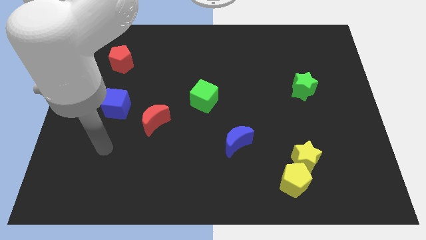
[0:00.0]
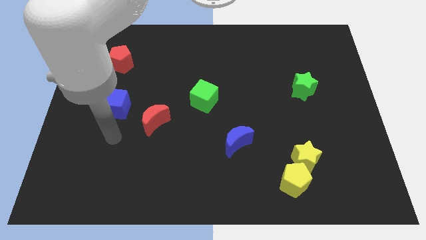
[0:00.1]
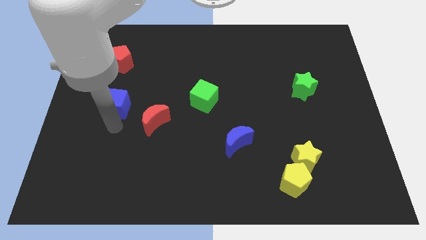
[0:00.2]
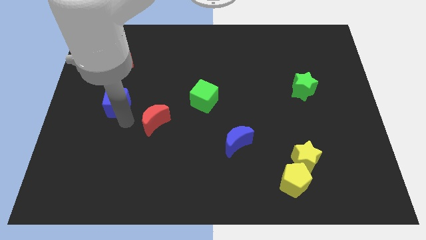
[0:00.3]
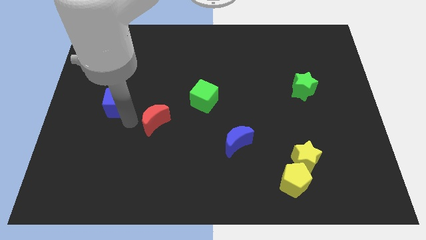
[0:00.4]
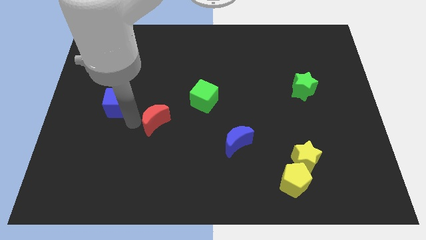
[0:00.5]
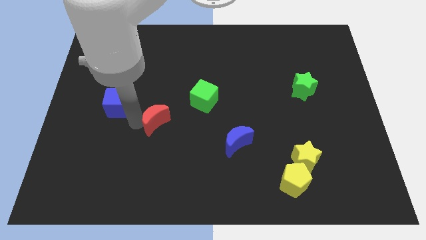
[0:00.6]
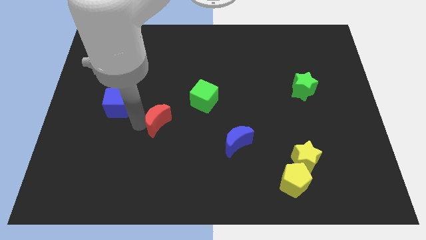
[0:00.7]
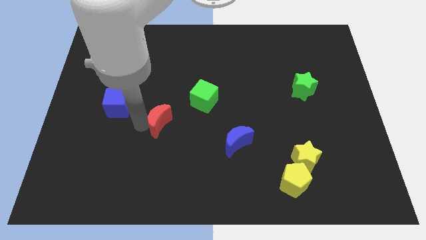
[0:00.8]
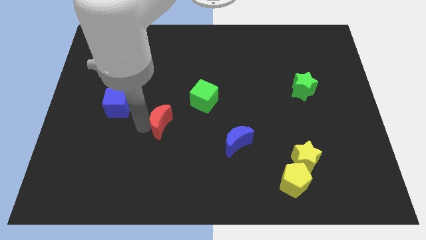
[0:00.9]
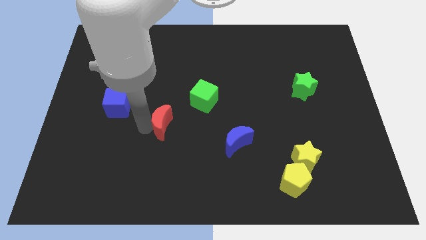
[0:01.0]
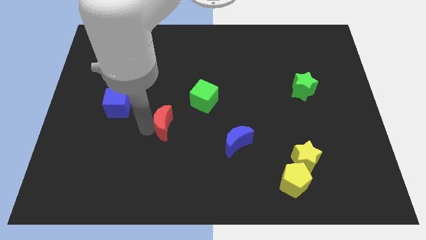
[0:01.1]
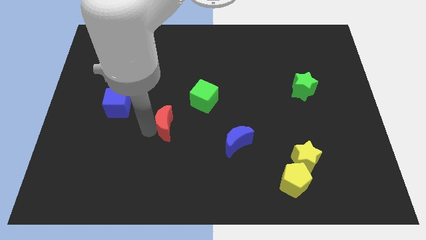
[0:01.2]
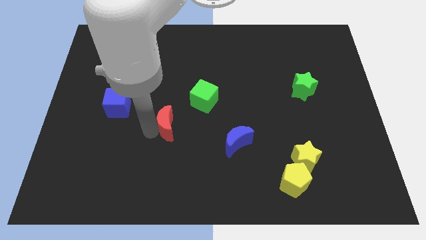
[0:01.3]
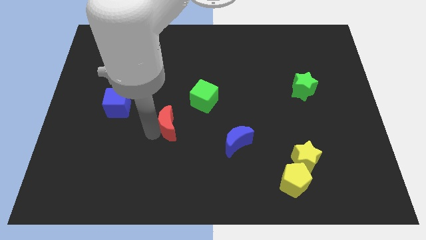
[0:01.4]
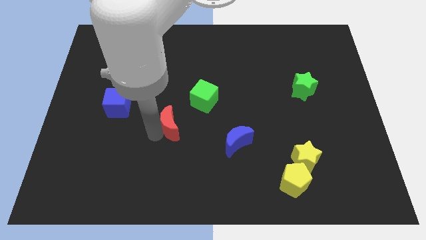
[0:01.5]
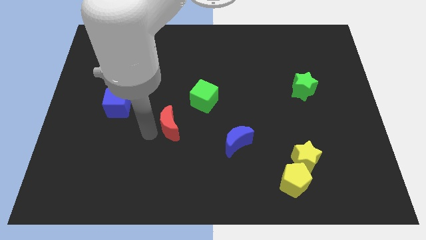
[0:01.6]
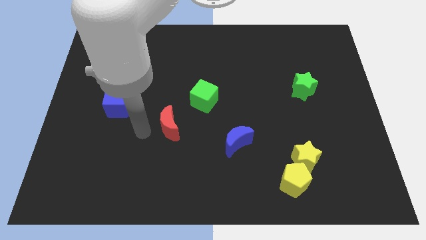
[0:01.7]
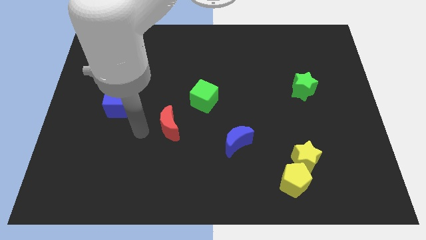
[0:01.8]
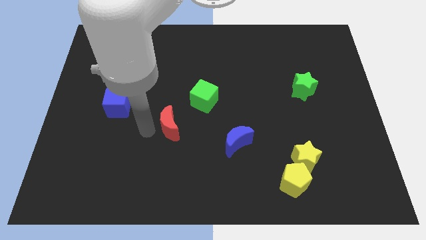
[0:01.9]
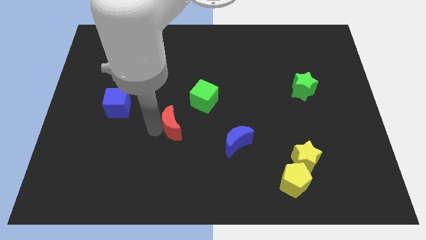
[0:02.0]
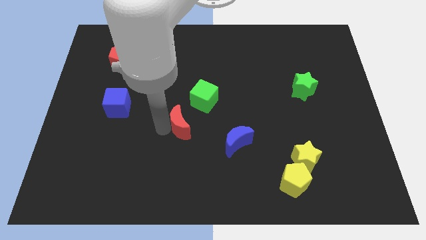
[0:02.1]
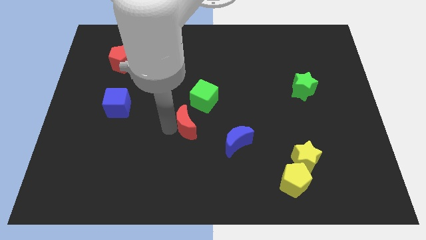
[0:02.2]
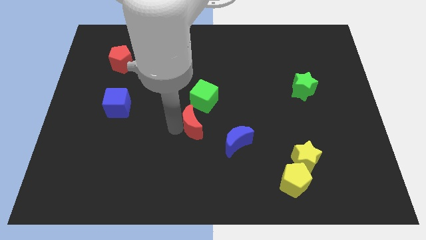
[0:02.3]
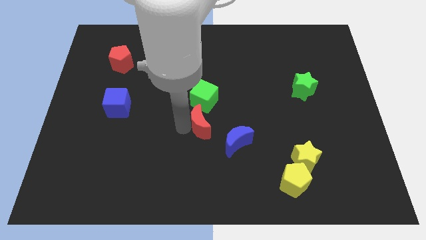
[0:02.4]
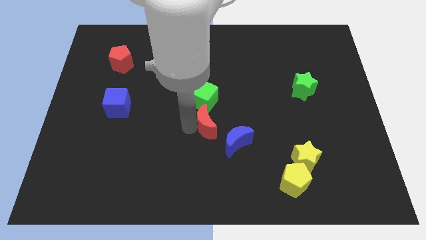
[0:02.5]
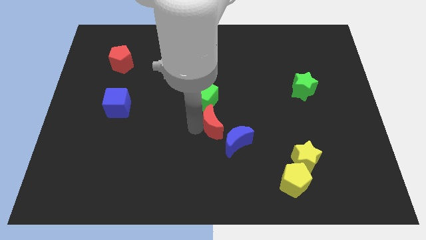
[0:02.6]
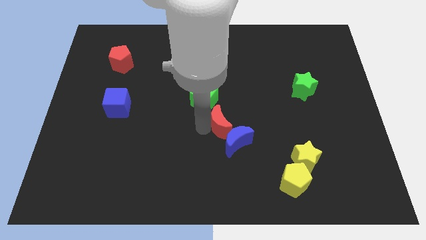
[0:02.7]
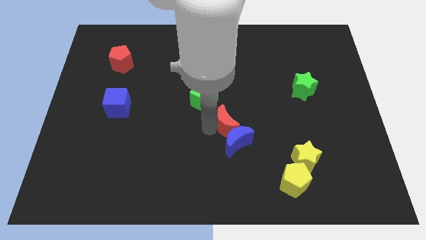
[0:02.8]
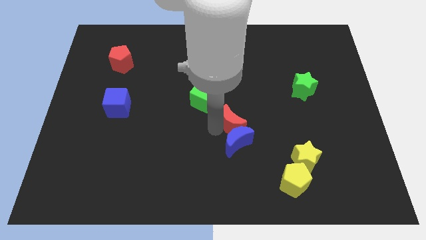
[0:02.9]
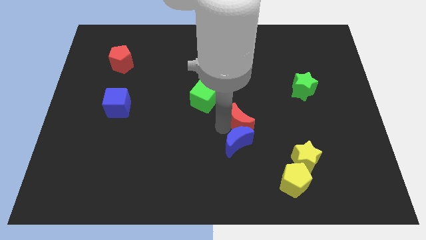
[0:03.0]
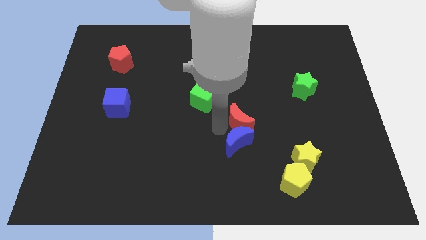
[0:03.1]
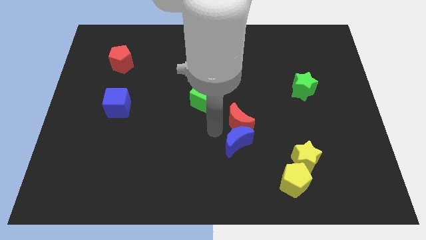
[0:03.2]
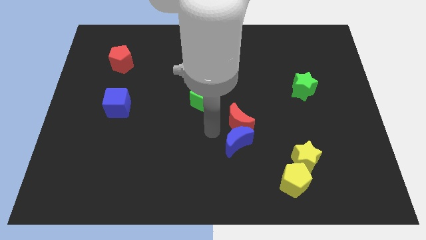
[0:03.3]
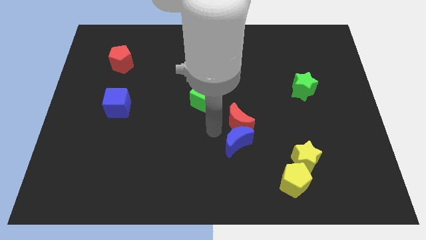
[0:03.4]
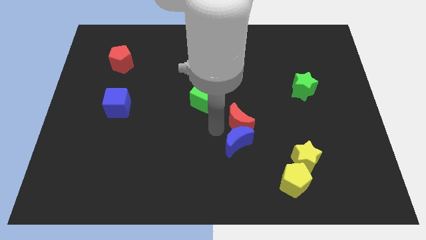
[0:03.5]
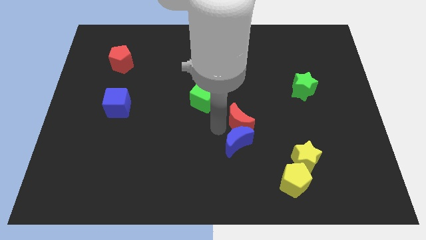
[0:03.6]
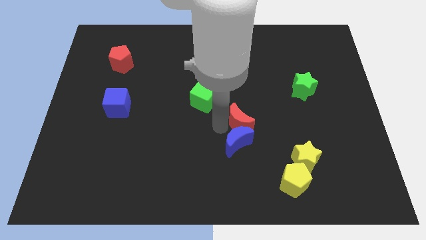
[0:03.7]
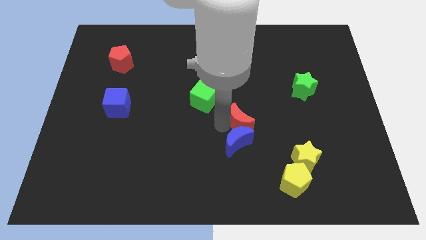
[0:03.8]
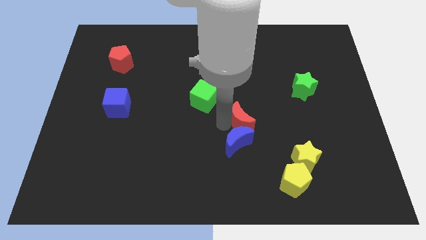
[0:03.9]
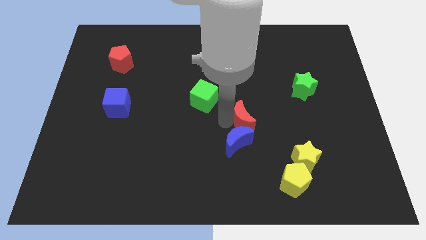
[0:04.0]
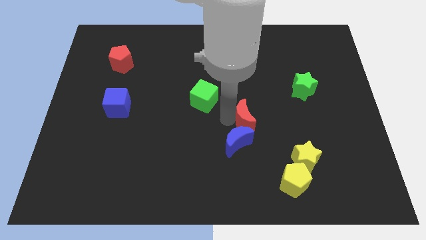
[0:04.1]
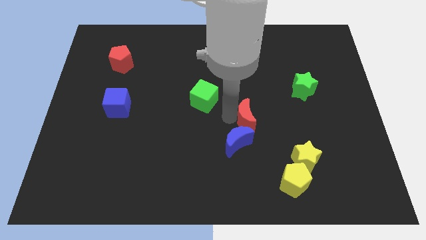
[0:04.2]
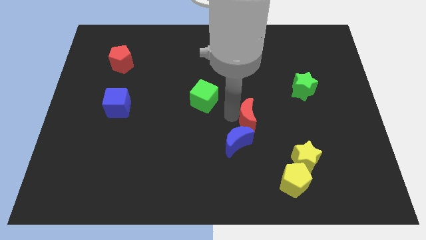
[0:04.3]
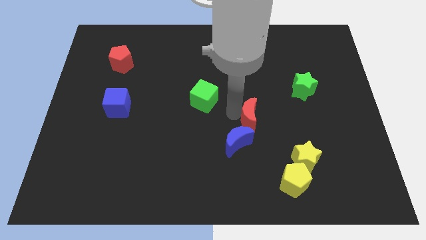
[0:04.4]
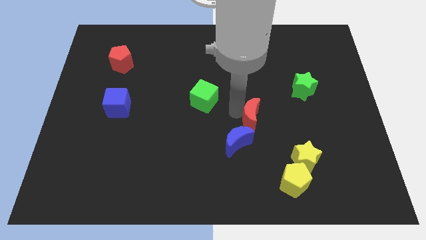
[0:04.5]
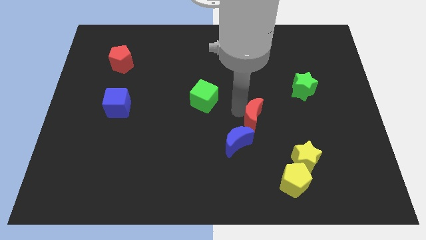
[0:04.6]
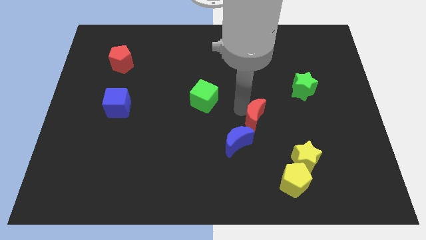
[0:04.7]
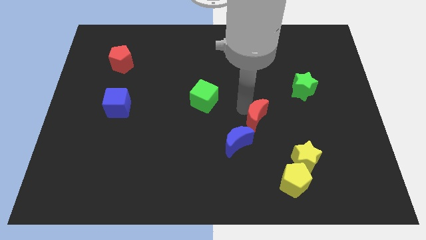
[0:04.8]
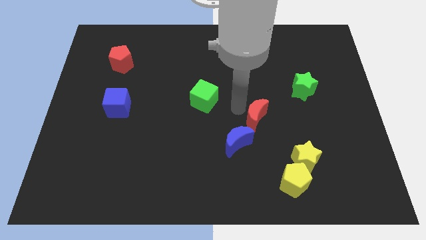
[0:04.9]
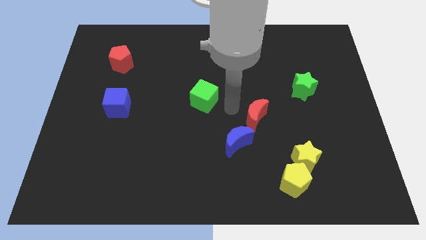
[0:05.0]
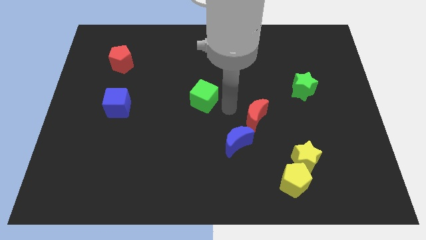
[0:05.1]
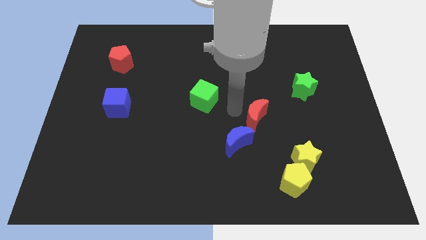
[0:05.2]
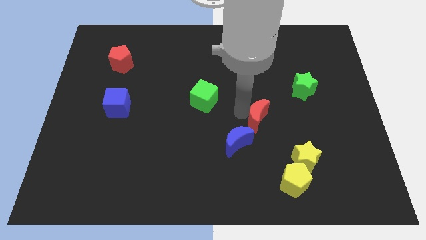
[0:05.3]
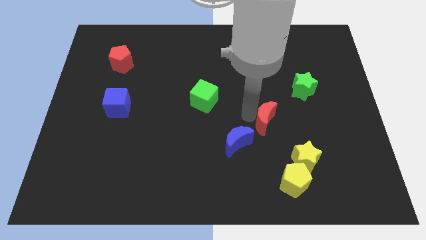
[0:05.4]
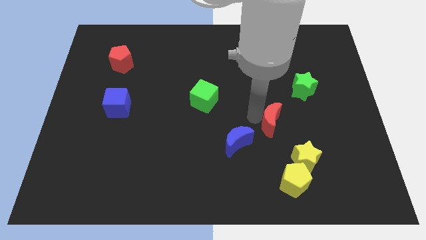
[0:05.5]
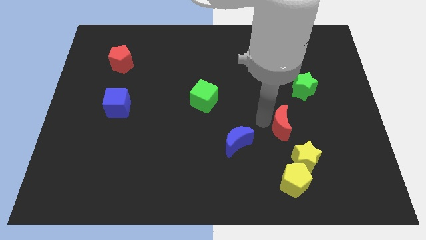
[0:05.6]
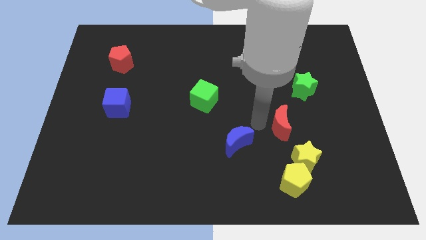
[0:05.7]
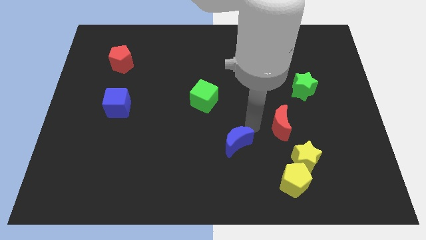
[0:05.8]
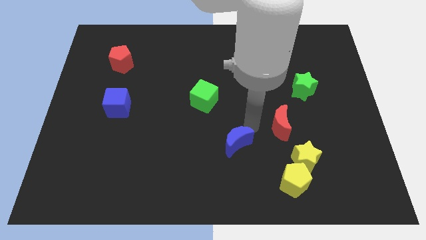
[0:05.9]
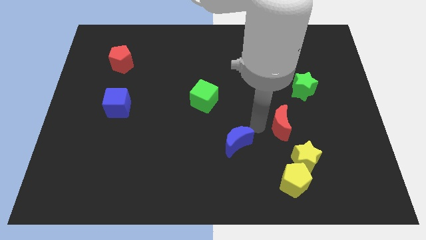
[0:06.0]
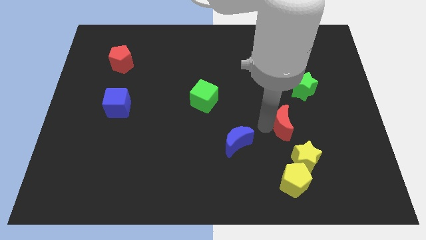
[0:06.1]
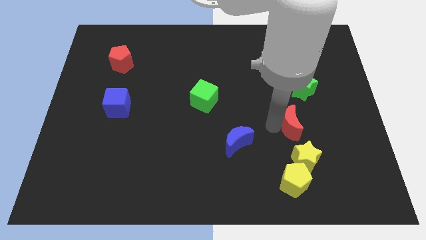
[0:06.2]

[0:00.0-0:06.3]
push the red moon to the bottom side of the green star

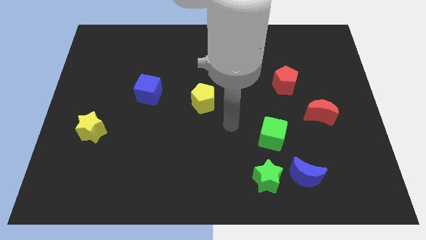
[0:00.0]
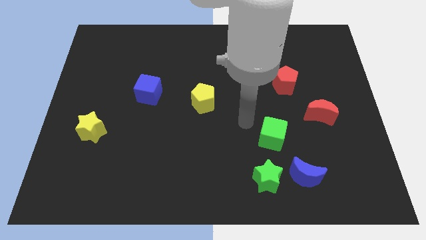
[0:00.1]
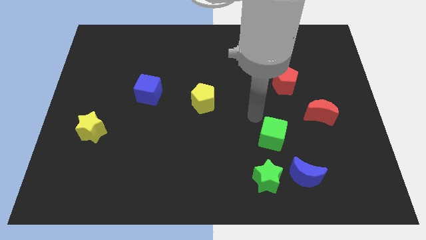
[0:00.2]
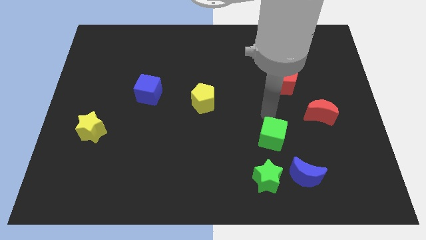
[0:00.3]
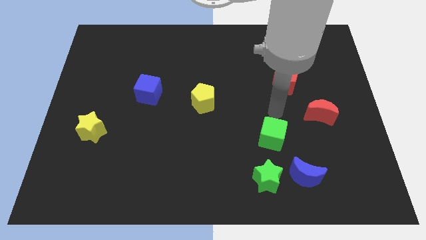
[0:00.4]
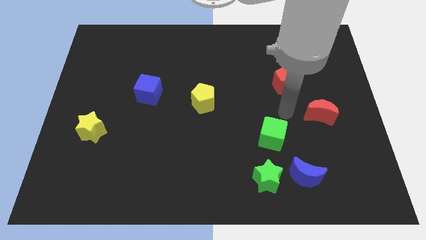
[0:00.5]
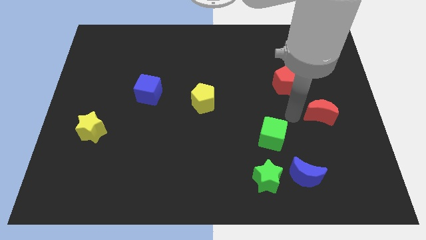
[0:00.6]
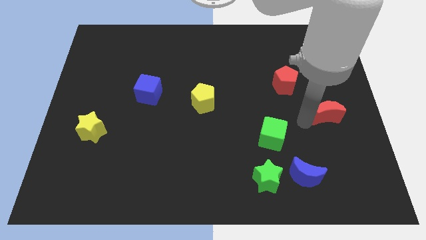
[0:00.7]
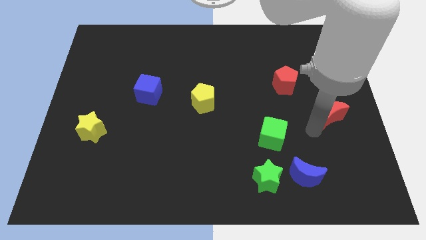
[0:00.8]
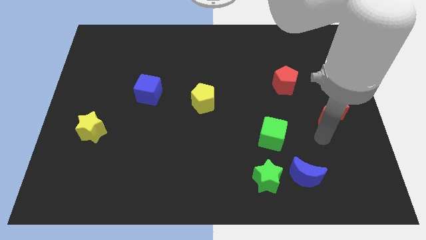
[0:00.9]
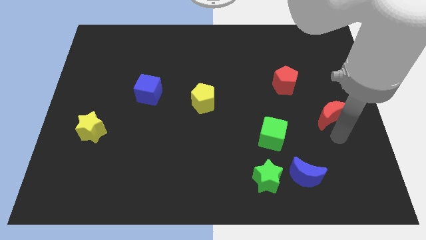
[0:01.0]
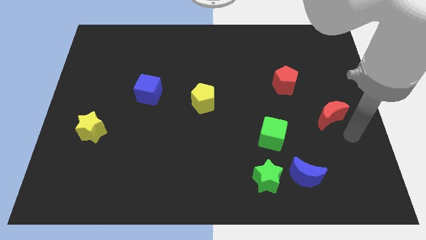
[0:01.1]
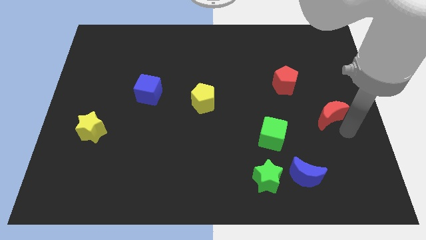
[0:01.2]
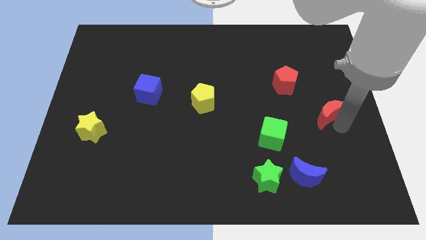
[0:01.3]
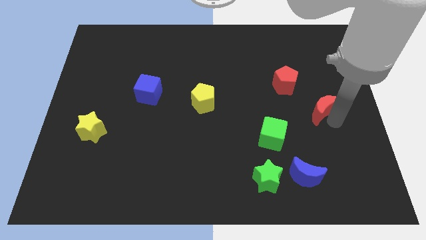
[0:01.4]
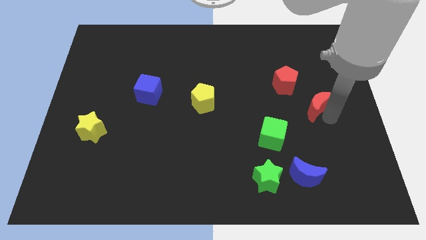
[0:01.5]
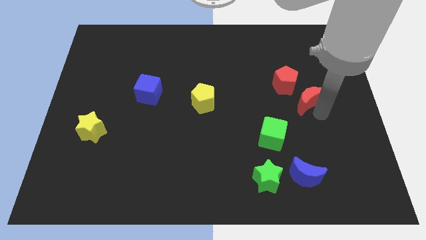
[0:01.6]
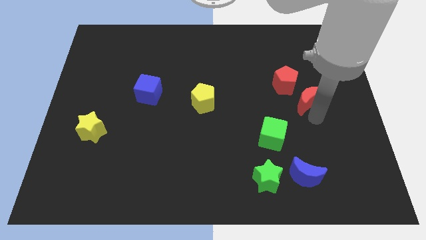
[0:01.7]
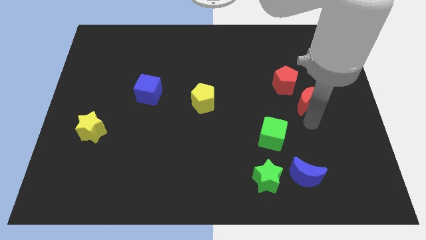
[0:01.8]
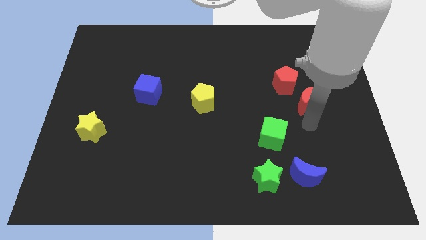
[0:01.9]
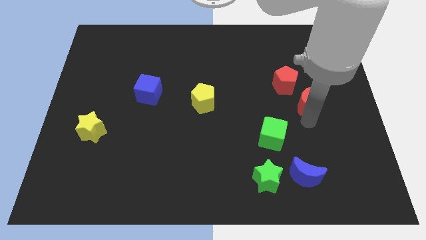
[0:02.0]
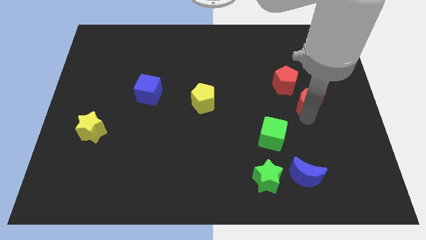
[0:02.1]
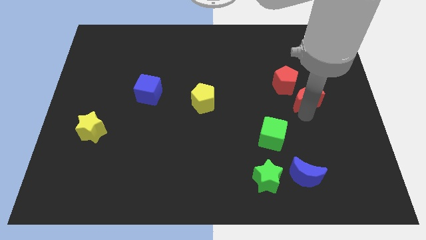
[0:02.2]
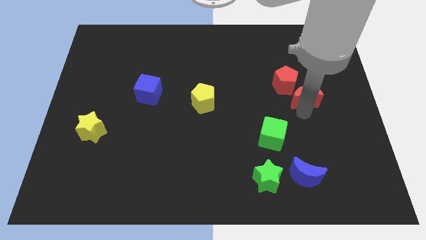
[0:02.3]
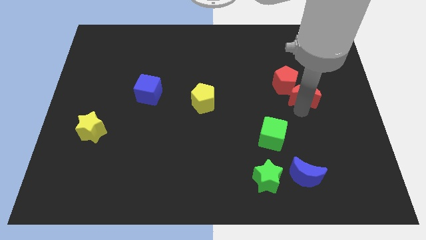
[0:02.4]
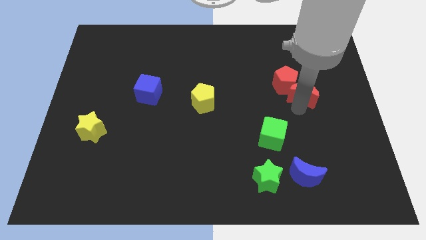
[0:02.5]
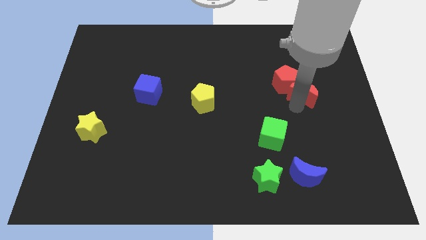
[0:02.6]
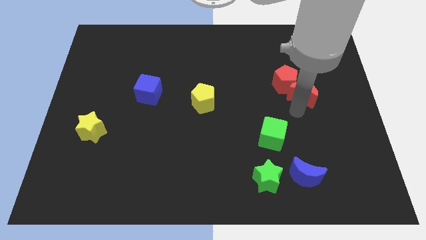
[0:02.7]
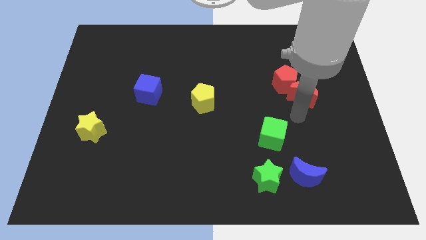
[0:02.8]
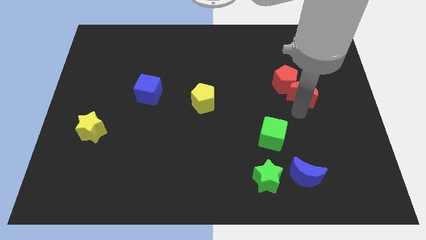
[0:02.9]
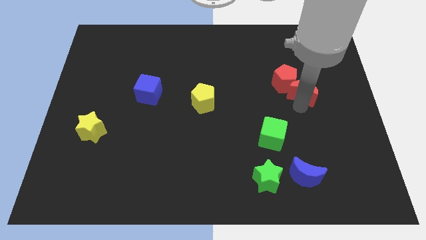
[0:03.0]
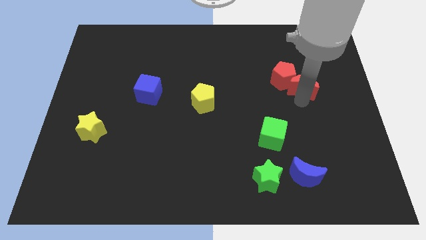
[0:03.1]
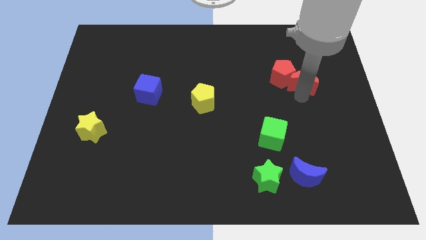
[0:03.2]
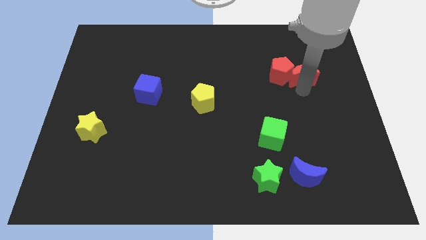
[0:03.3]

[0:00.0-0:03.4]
move the red moon to the top right of the red pentagon
